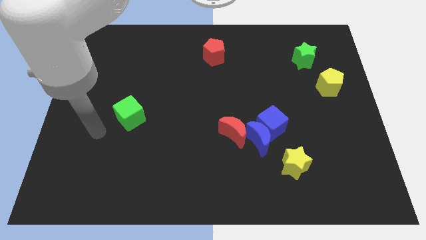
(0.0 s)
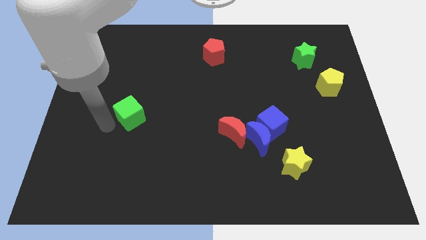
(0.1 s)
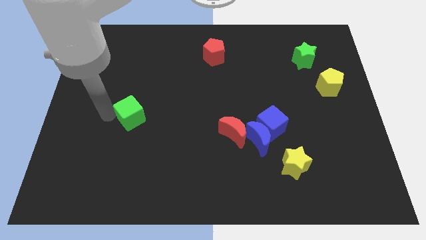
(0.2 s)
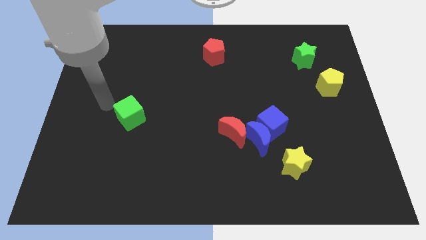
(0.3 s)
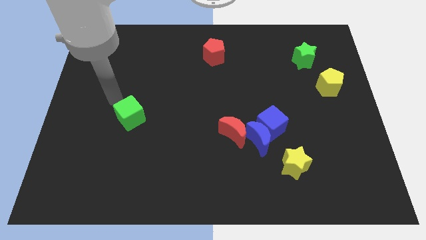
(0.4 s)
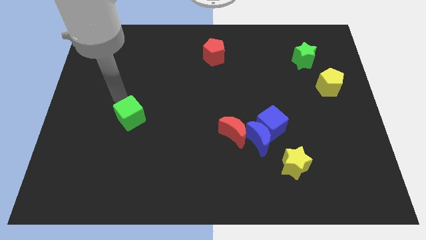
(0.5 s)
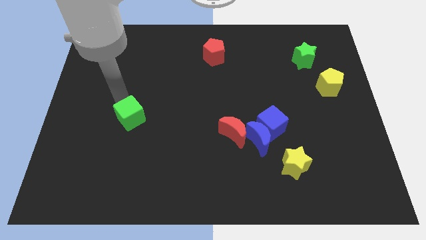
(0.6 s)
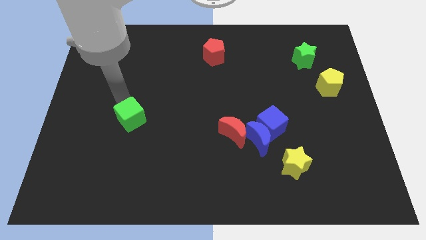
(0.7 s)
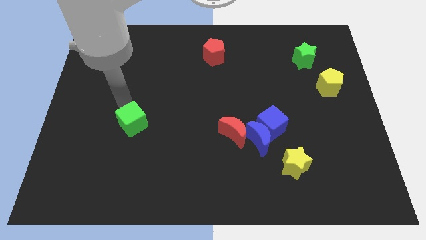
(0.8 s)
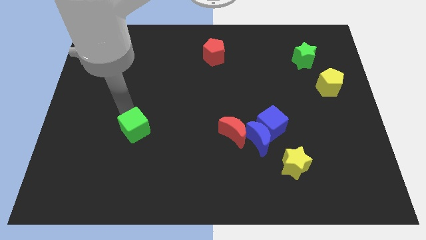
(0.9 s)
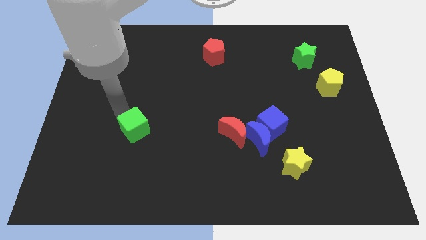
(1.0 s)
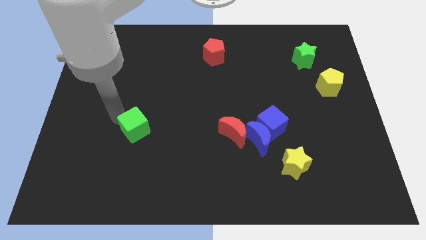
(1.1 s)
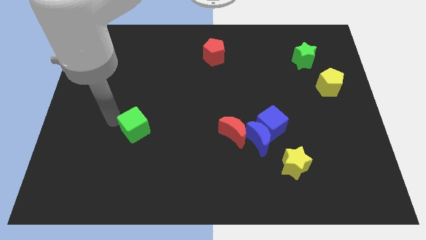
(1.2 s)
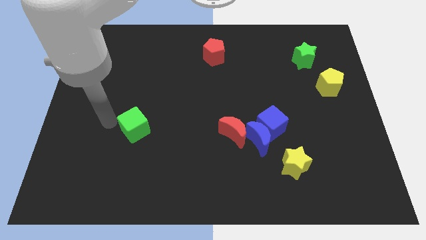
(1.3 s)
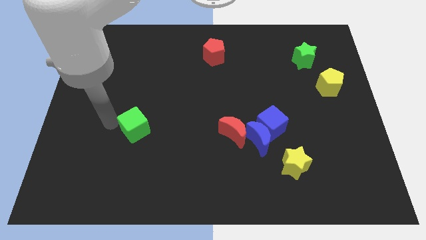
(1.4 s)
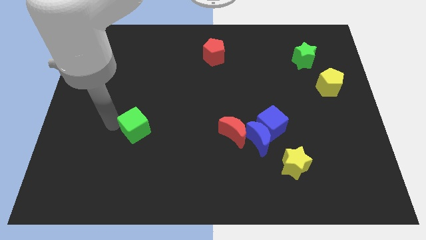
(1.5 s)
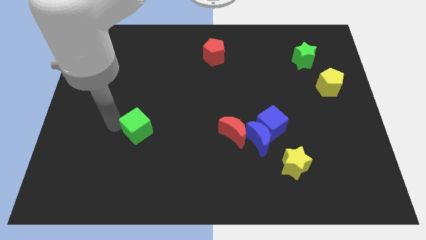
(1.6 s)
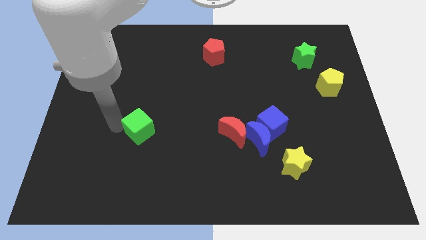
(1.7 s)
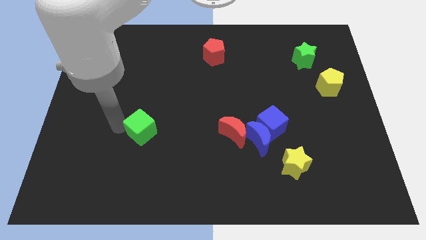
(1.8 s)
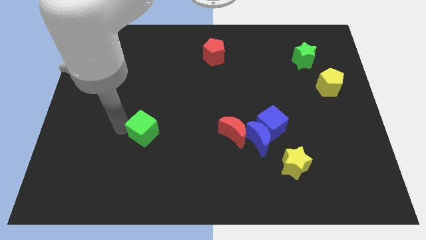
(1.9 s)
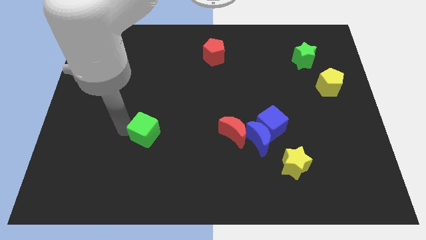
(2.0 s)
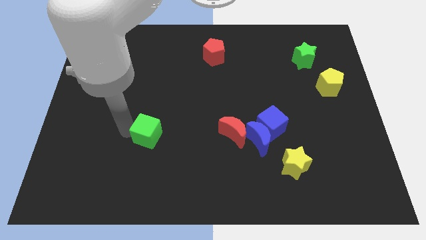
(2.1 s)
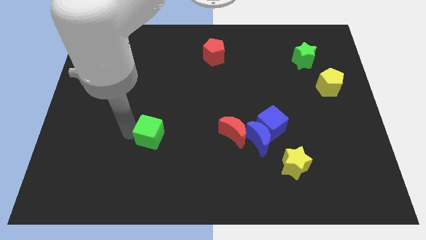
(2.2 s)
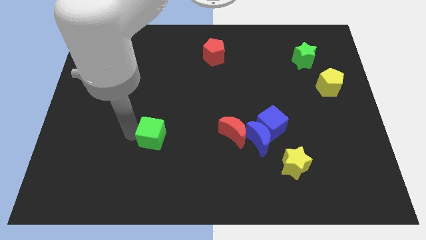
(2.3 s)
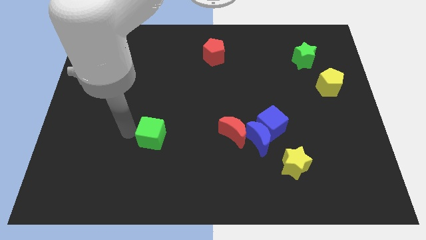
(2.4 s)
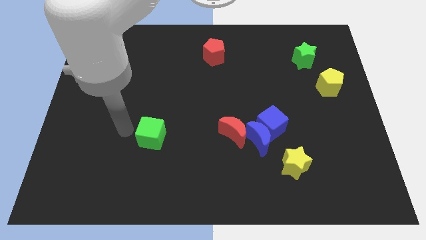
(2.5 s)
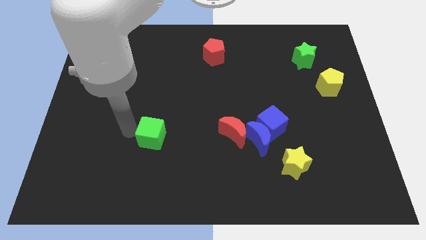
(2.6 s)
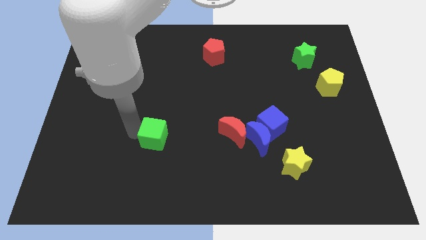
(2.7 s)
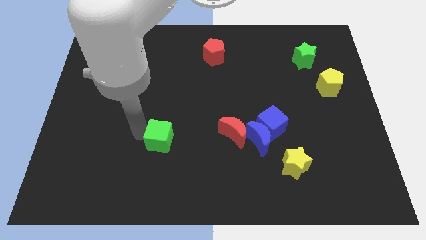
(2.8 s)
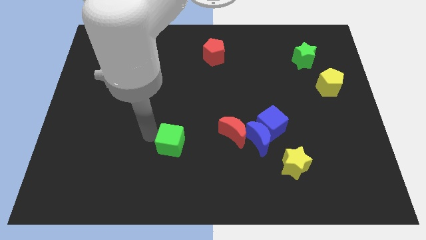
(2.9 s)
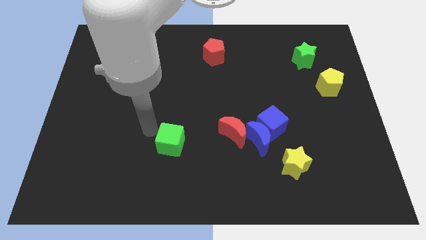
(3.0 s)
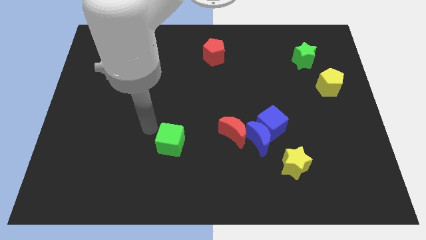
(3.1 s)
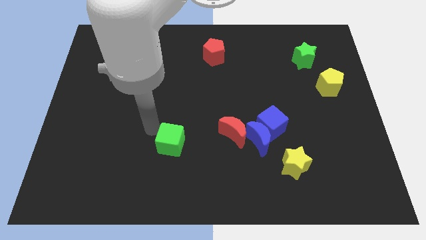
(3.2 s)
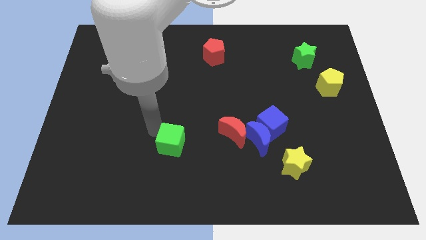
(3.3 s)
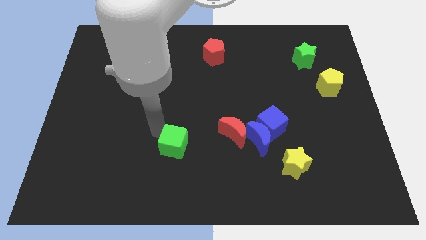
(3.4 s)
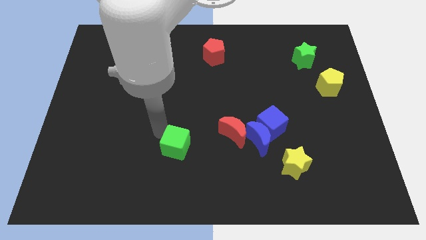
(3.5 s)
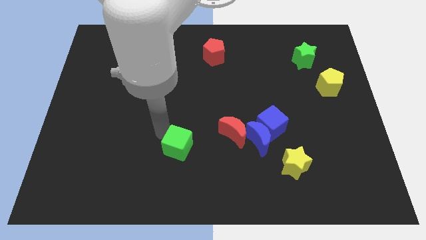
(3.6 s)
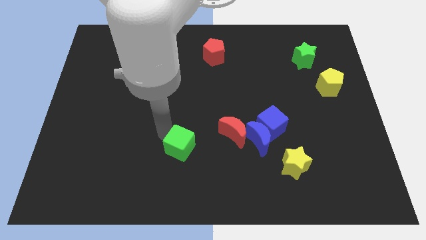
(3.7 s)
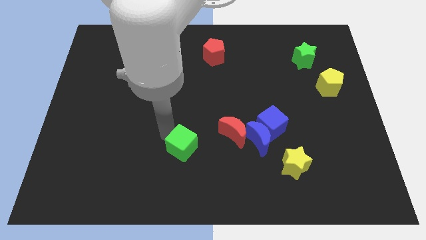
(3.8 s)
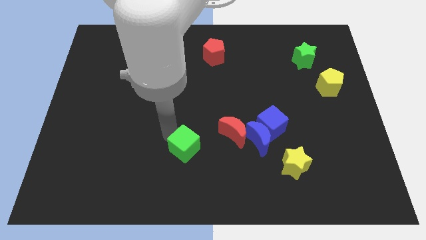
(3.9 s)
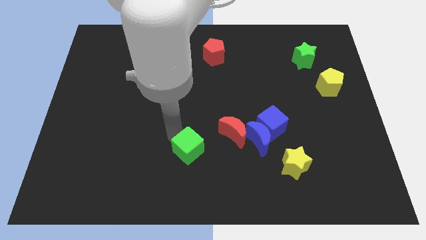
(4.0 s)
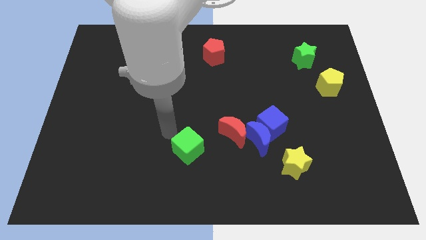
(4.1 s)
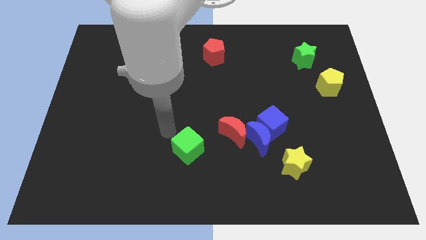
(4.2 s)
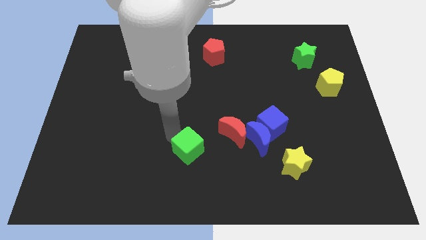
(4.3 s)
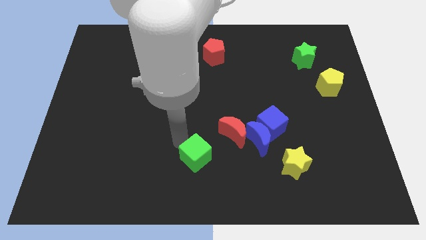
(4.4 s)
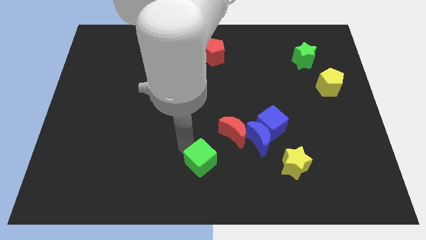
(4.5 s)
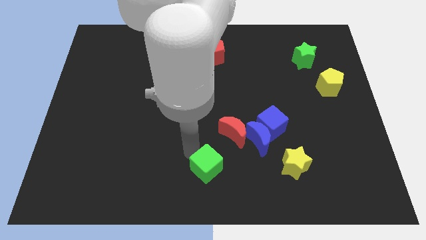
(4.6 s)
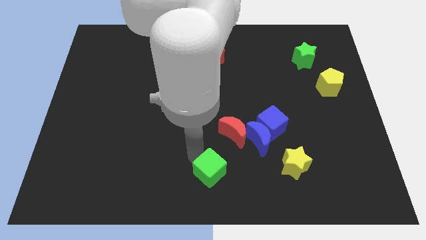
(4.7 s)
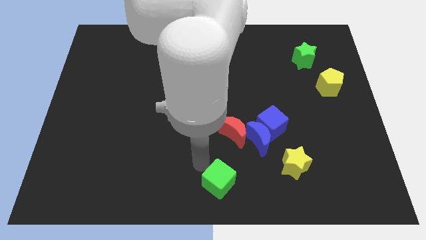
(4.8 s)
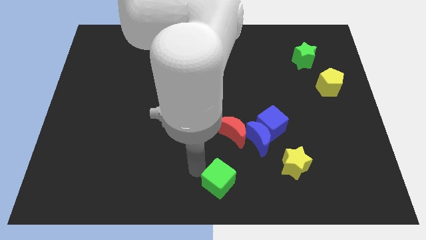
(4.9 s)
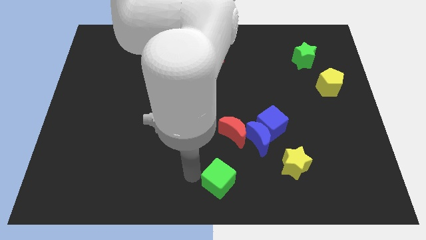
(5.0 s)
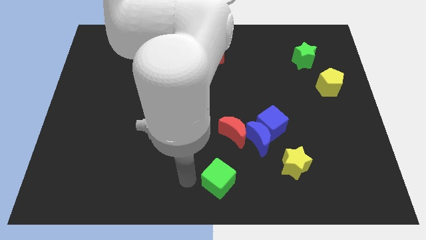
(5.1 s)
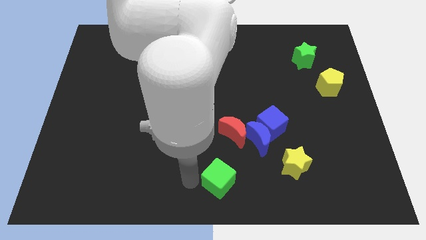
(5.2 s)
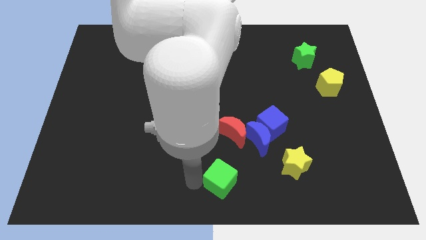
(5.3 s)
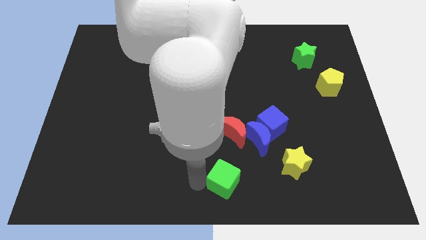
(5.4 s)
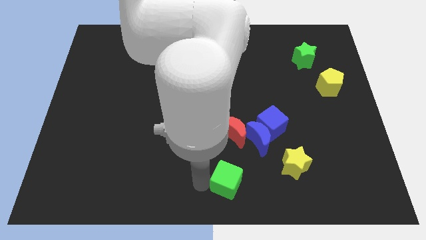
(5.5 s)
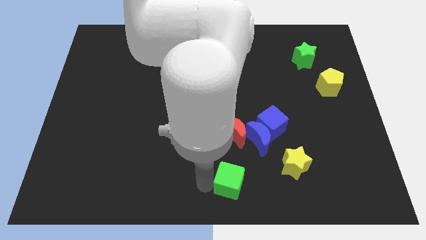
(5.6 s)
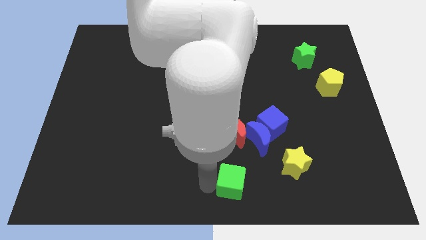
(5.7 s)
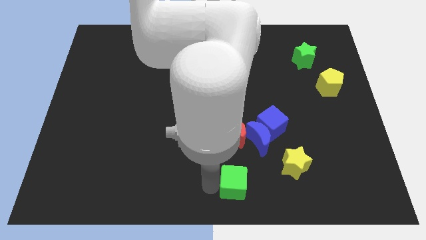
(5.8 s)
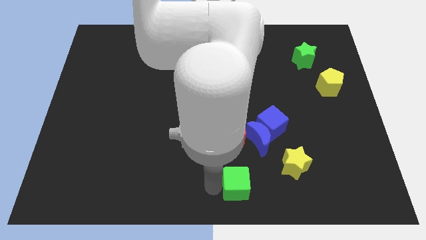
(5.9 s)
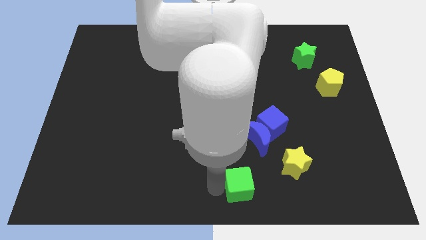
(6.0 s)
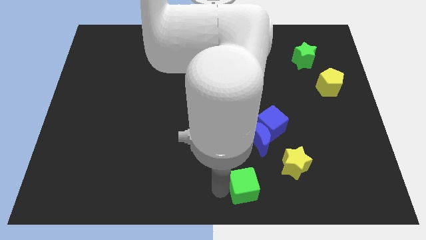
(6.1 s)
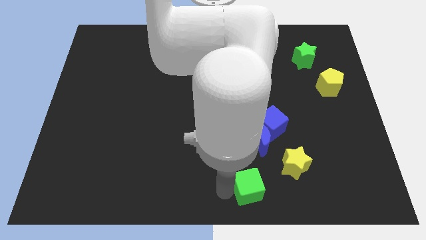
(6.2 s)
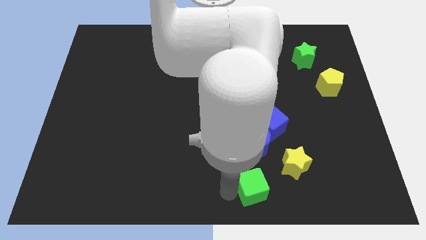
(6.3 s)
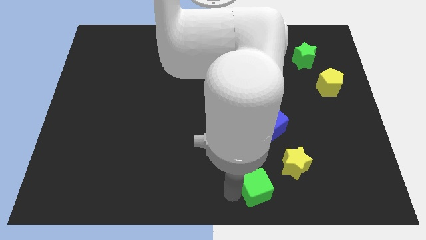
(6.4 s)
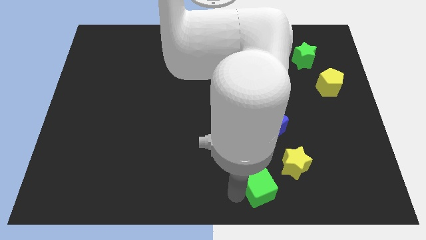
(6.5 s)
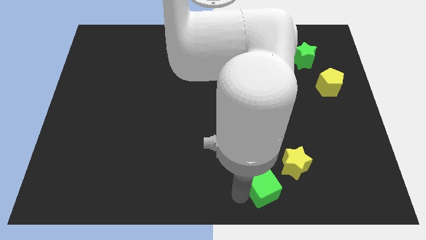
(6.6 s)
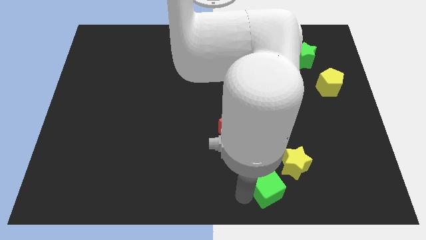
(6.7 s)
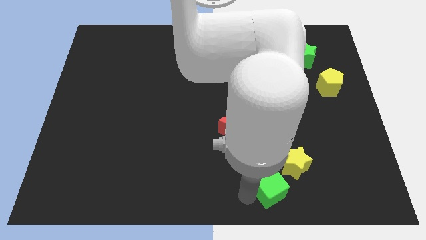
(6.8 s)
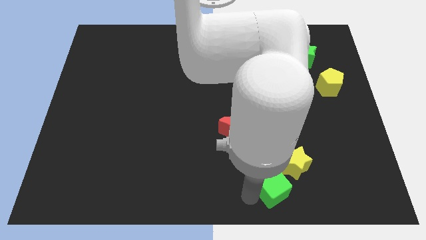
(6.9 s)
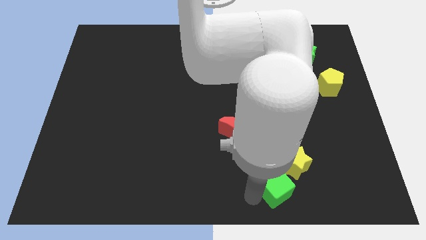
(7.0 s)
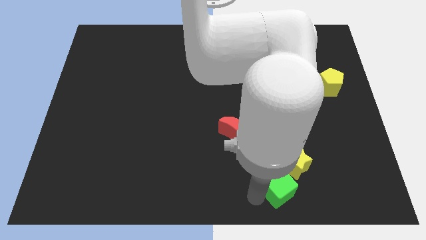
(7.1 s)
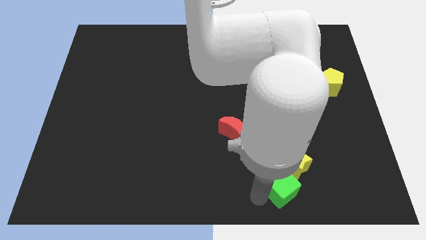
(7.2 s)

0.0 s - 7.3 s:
move the green cube towards the yellow star

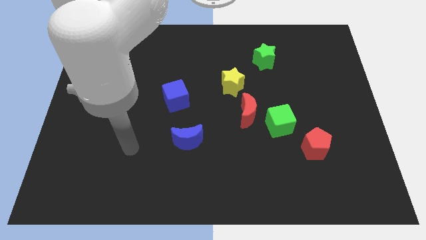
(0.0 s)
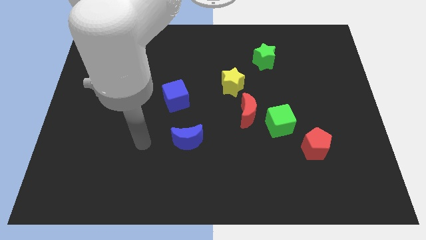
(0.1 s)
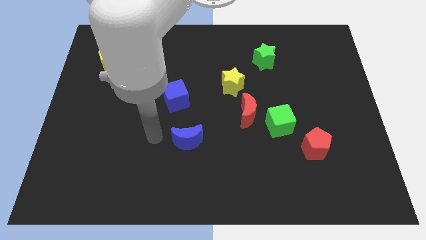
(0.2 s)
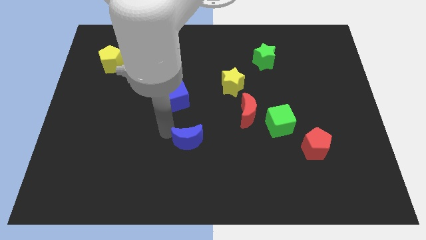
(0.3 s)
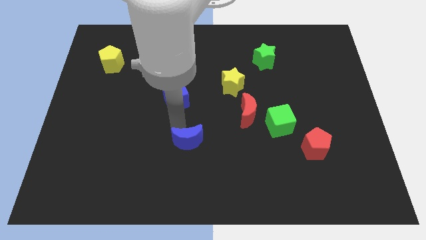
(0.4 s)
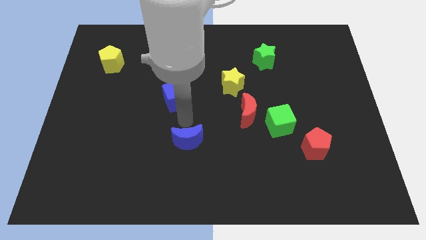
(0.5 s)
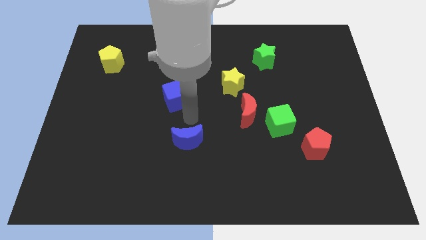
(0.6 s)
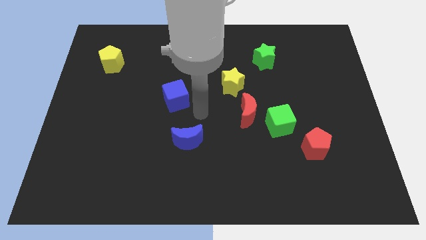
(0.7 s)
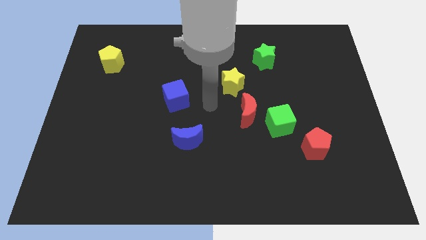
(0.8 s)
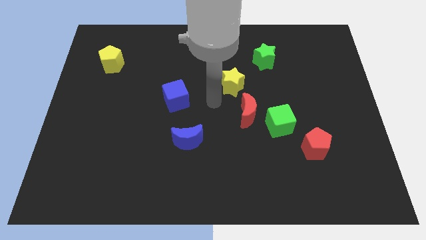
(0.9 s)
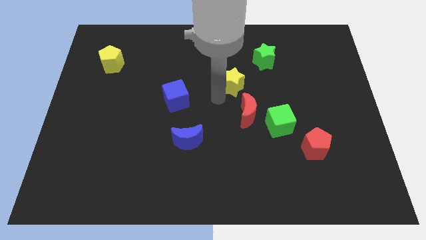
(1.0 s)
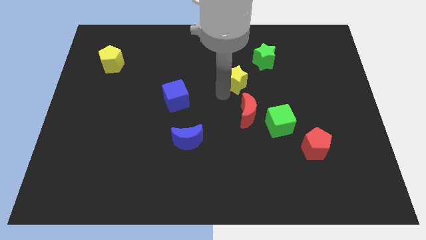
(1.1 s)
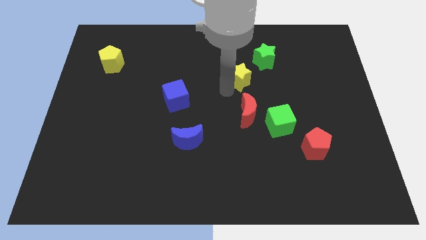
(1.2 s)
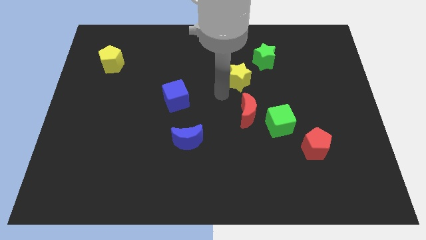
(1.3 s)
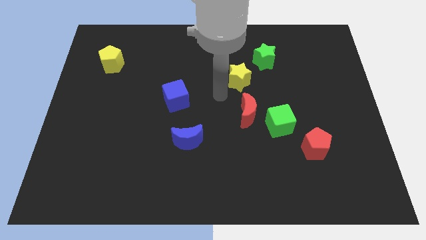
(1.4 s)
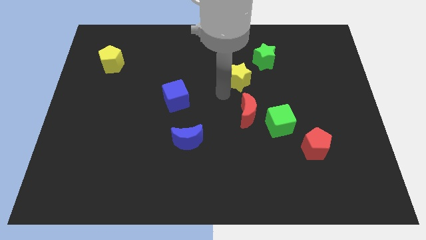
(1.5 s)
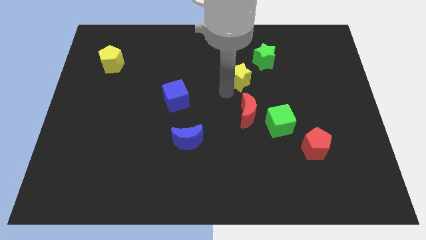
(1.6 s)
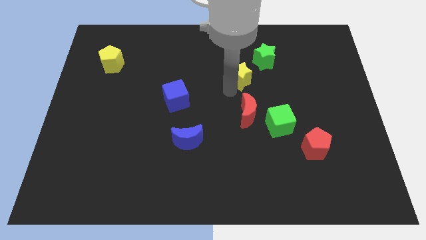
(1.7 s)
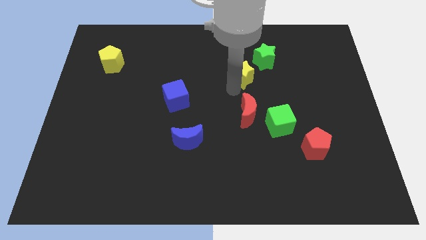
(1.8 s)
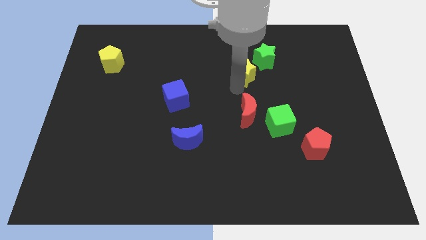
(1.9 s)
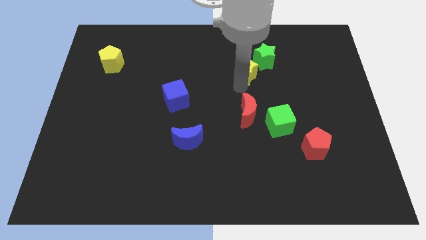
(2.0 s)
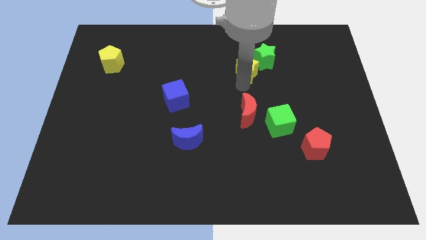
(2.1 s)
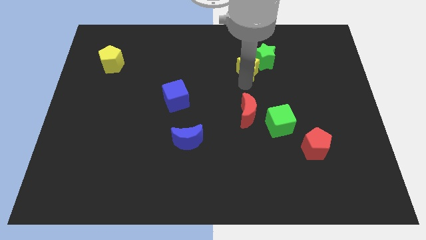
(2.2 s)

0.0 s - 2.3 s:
push the yellow star to the green star
